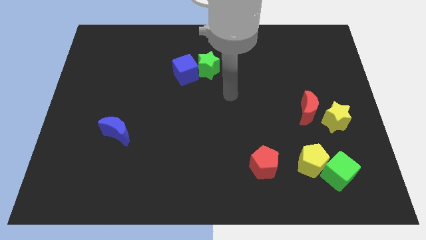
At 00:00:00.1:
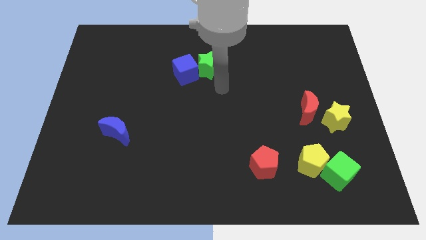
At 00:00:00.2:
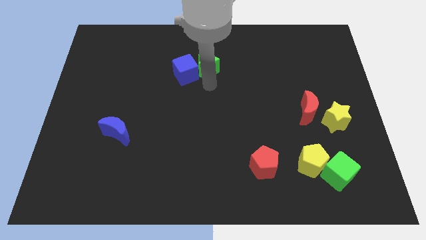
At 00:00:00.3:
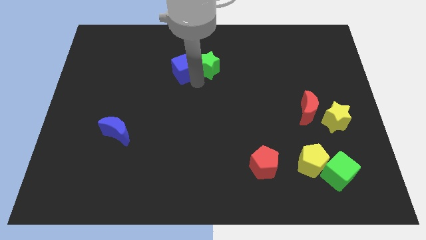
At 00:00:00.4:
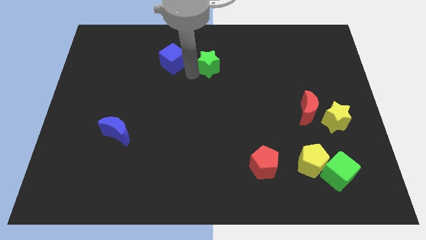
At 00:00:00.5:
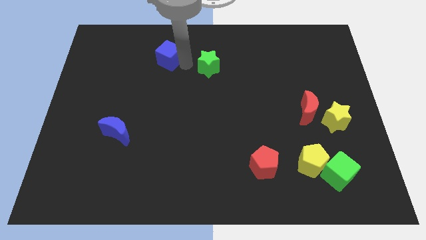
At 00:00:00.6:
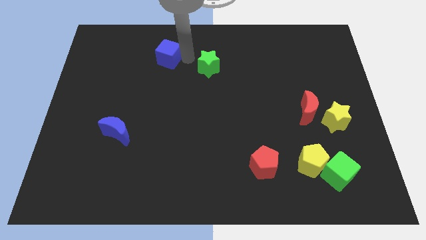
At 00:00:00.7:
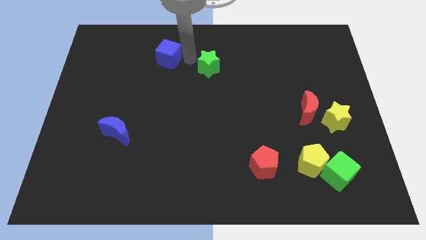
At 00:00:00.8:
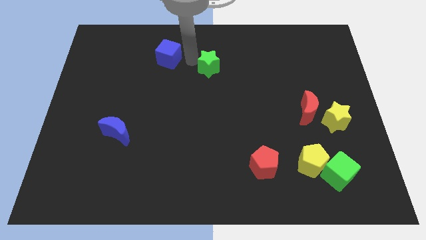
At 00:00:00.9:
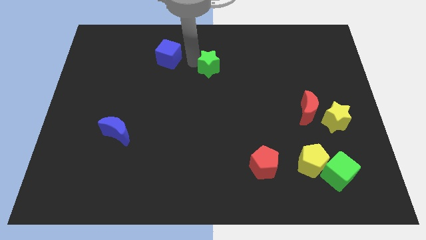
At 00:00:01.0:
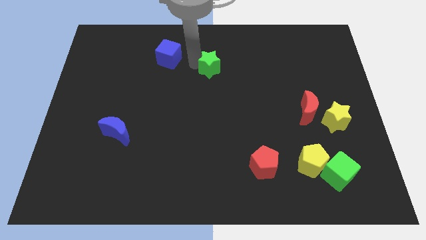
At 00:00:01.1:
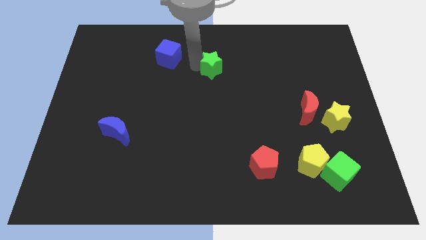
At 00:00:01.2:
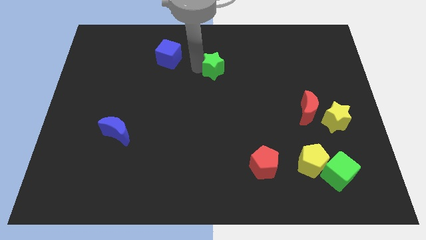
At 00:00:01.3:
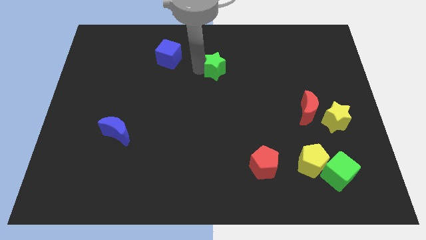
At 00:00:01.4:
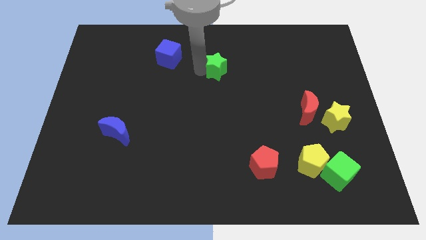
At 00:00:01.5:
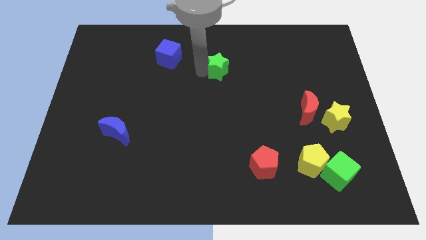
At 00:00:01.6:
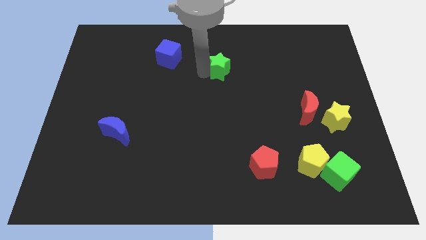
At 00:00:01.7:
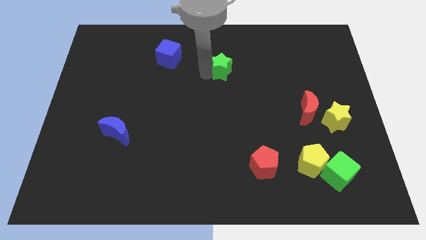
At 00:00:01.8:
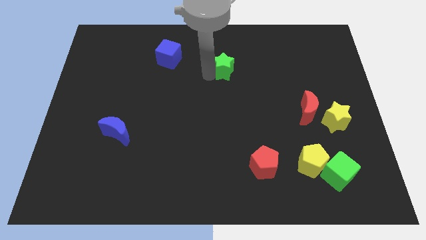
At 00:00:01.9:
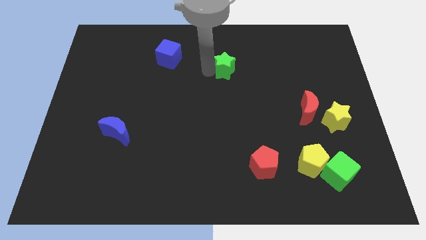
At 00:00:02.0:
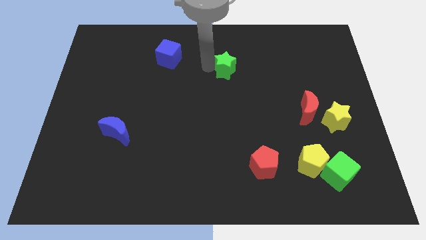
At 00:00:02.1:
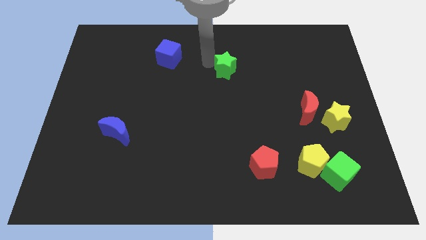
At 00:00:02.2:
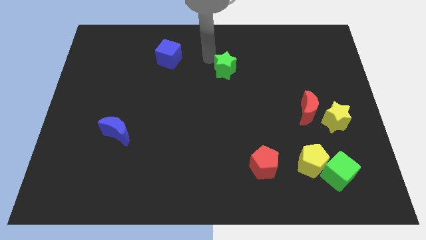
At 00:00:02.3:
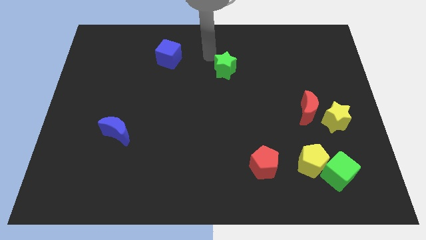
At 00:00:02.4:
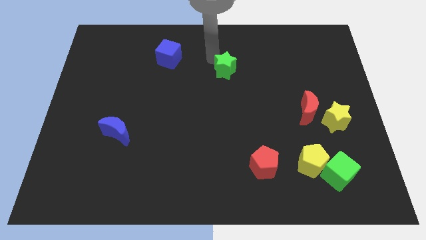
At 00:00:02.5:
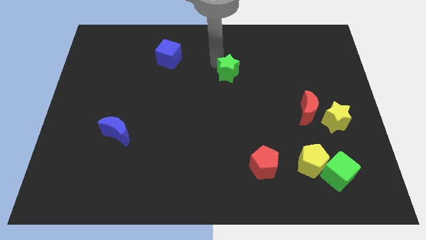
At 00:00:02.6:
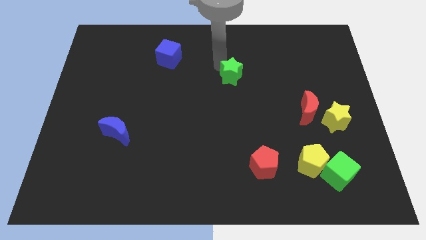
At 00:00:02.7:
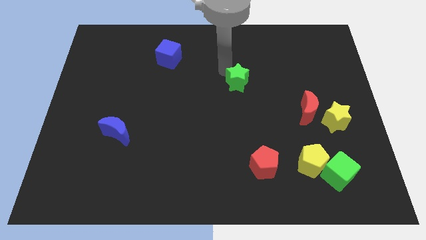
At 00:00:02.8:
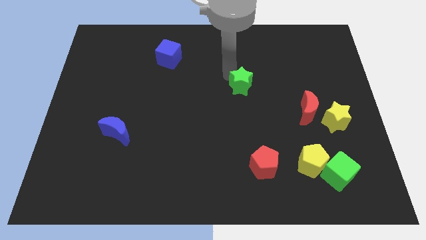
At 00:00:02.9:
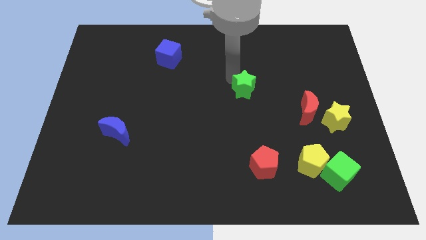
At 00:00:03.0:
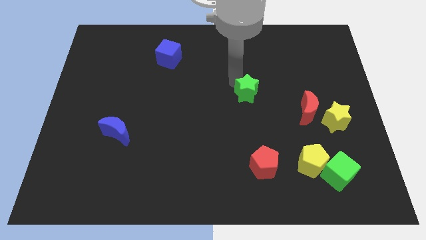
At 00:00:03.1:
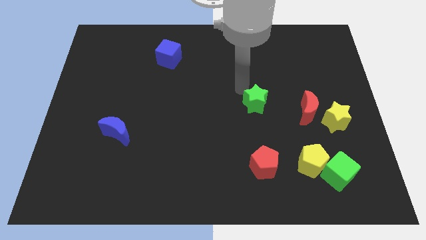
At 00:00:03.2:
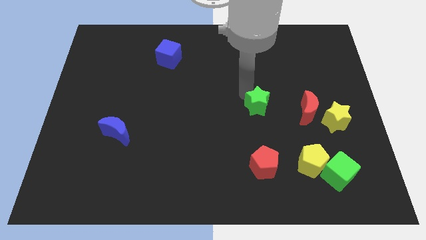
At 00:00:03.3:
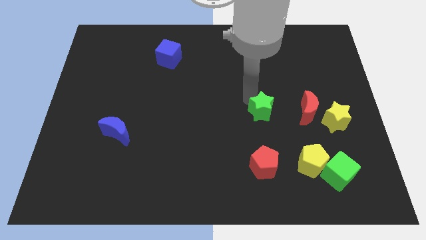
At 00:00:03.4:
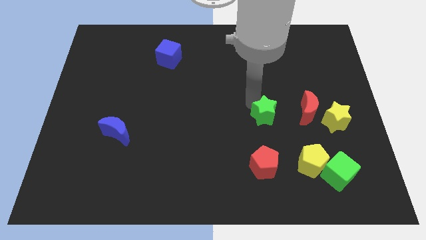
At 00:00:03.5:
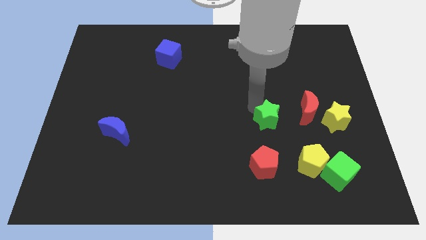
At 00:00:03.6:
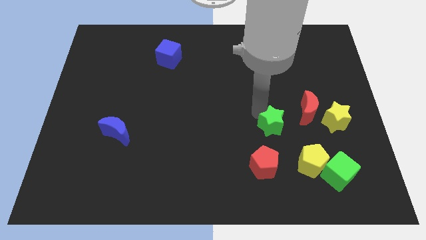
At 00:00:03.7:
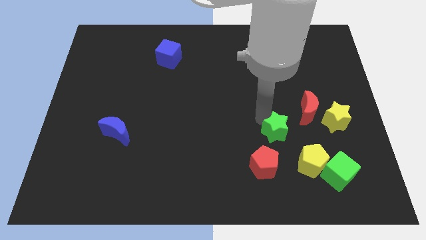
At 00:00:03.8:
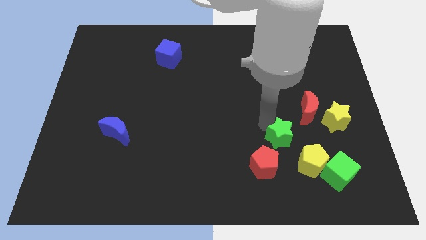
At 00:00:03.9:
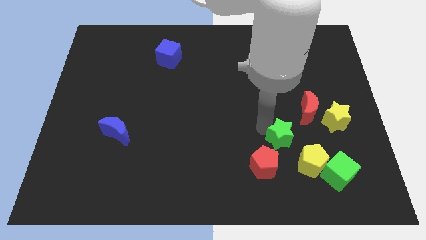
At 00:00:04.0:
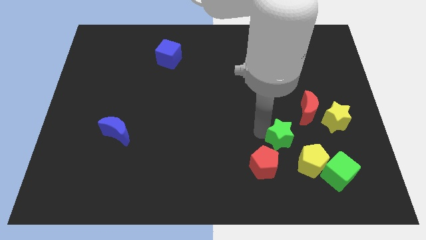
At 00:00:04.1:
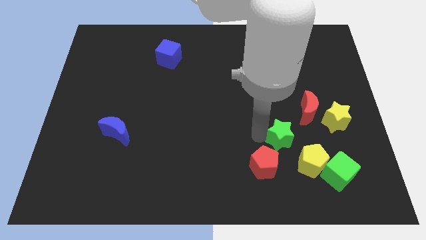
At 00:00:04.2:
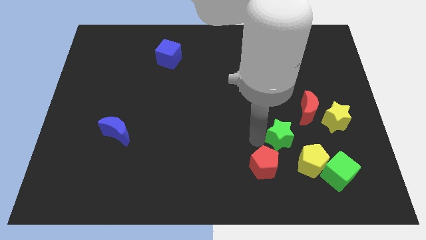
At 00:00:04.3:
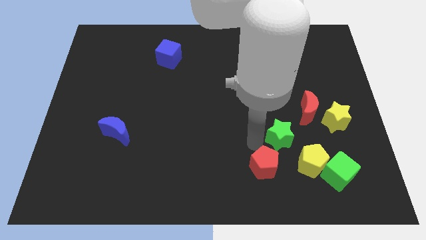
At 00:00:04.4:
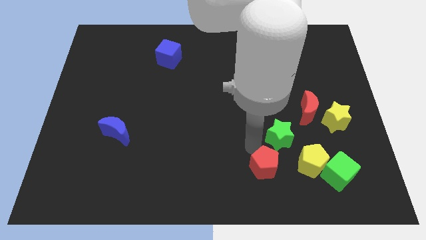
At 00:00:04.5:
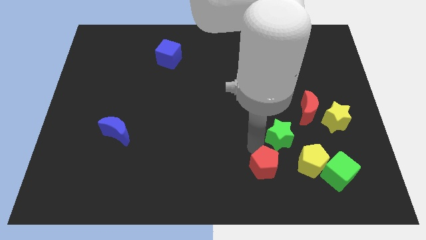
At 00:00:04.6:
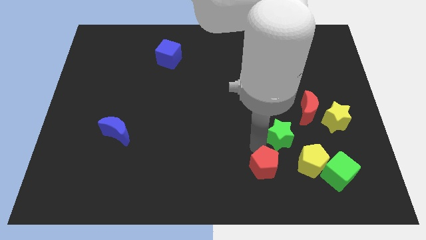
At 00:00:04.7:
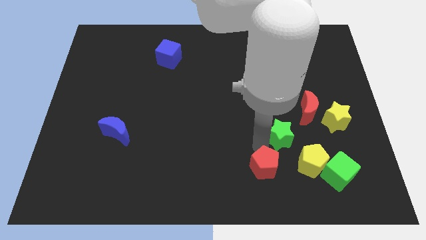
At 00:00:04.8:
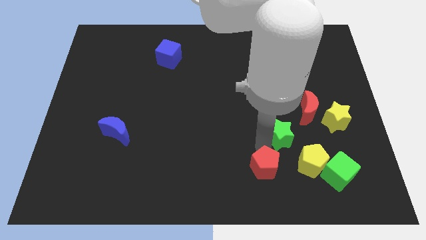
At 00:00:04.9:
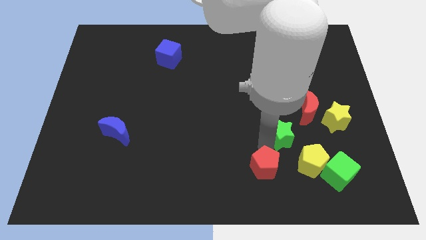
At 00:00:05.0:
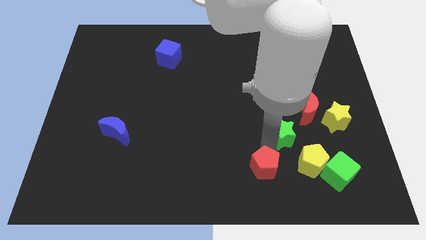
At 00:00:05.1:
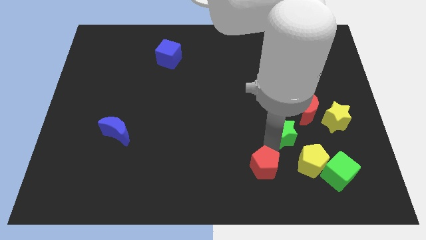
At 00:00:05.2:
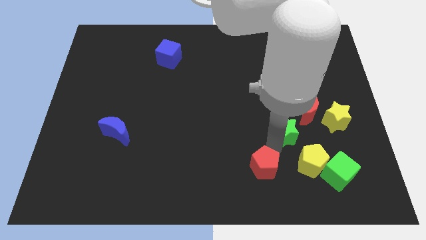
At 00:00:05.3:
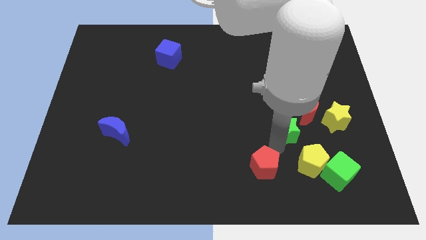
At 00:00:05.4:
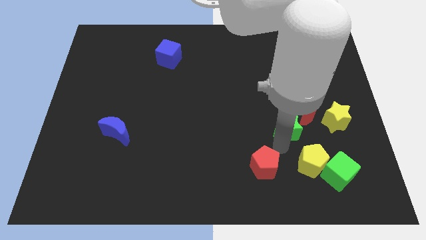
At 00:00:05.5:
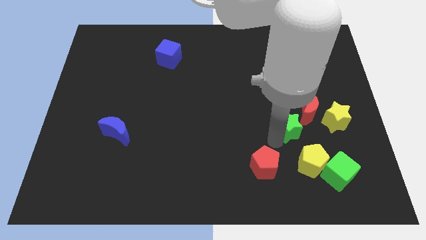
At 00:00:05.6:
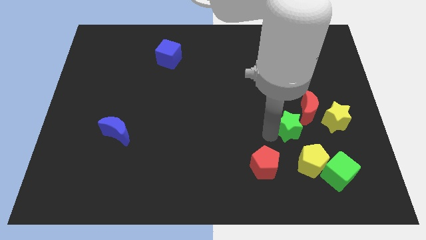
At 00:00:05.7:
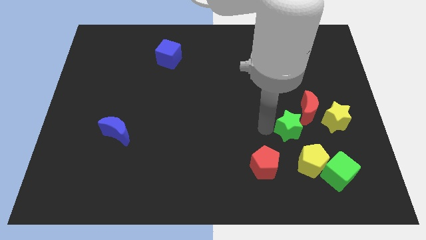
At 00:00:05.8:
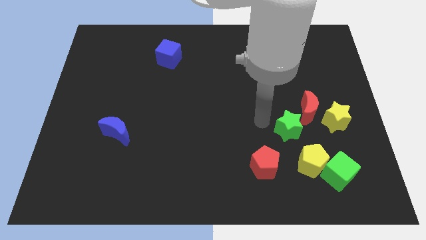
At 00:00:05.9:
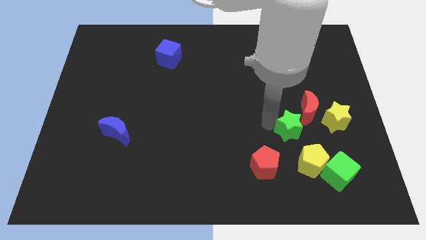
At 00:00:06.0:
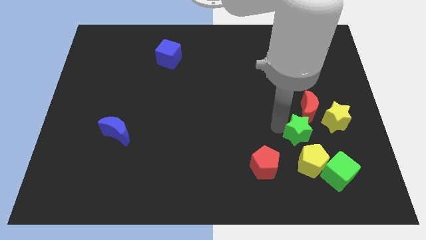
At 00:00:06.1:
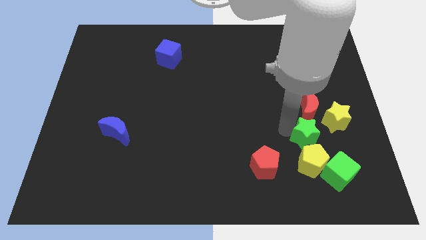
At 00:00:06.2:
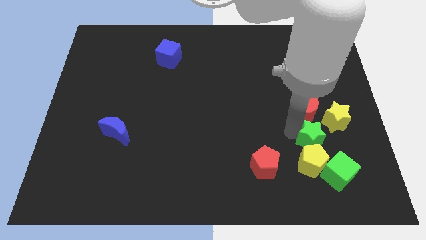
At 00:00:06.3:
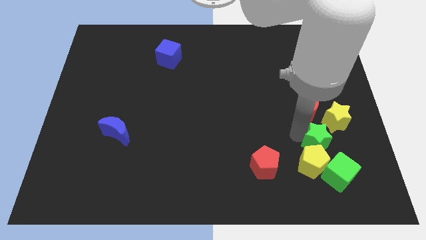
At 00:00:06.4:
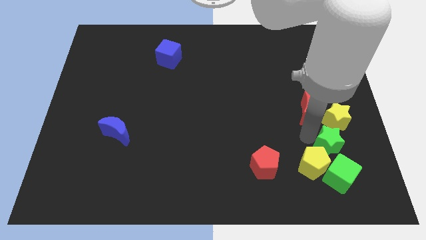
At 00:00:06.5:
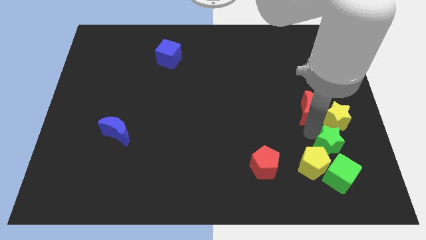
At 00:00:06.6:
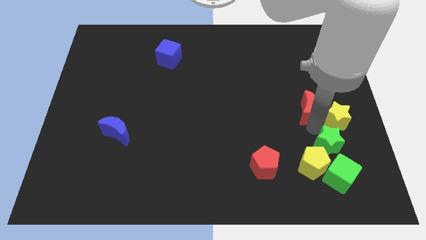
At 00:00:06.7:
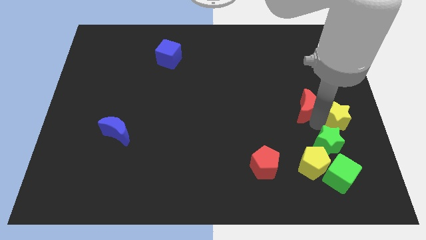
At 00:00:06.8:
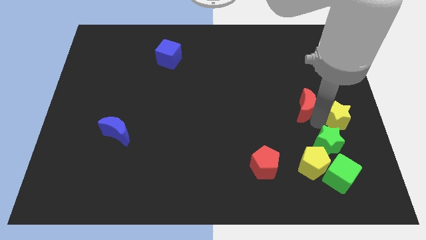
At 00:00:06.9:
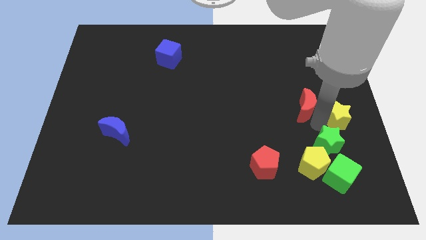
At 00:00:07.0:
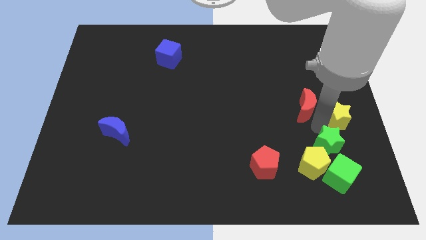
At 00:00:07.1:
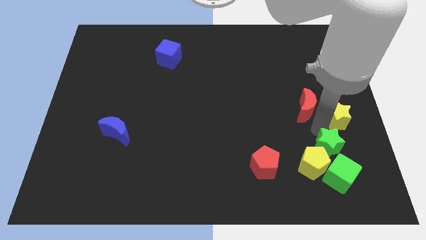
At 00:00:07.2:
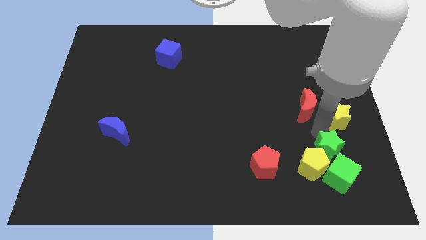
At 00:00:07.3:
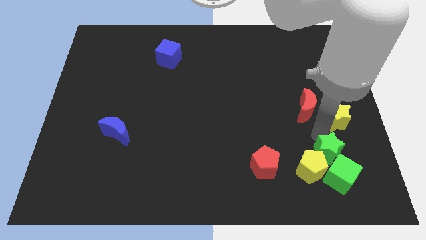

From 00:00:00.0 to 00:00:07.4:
put the green star close to the green cube
